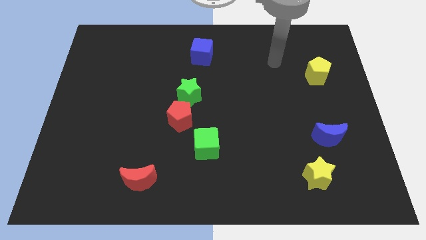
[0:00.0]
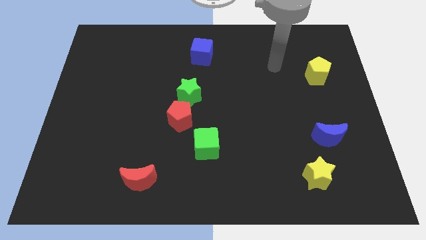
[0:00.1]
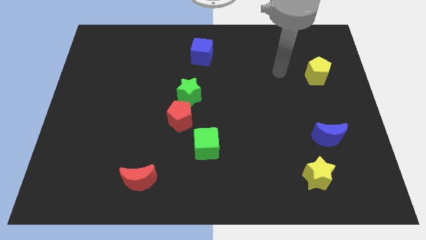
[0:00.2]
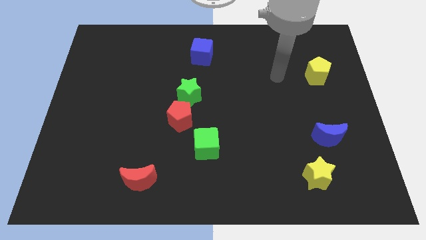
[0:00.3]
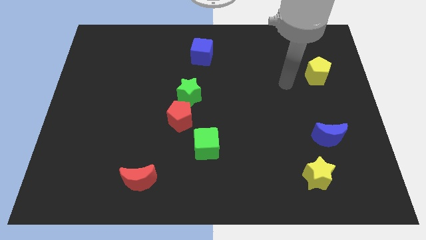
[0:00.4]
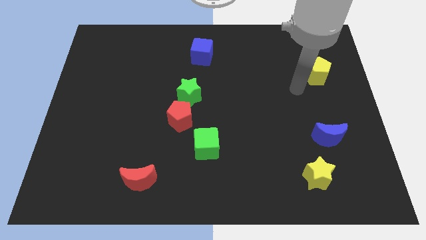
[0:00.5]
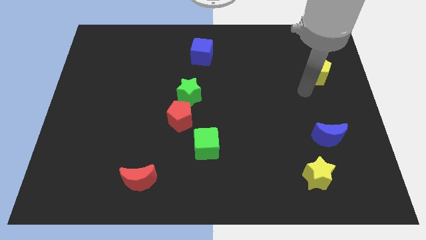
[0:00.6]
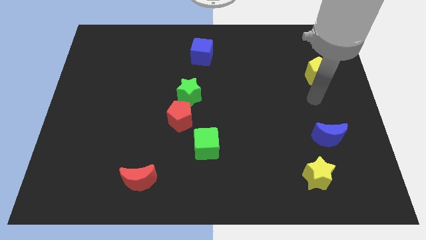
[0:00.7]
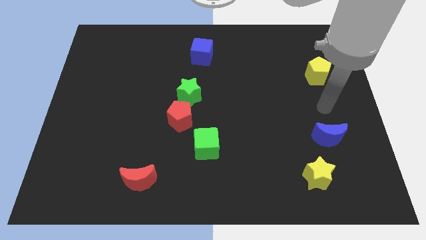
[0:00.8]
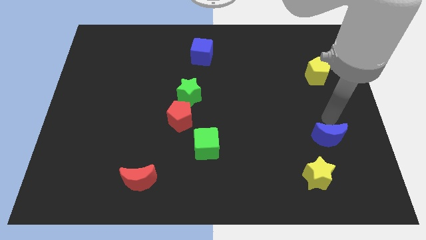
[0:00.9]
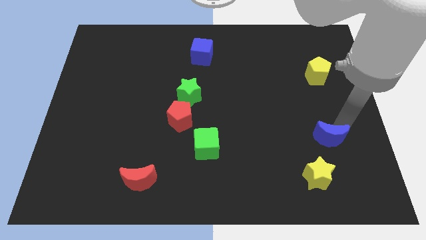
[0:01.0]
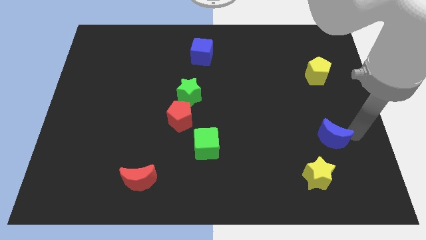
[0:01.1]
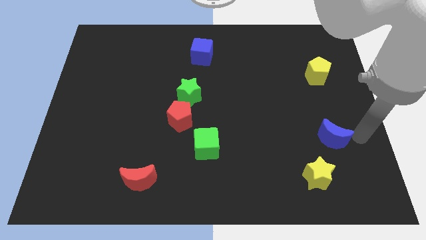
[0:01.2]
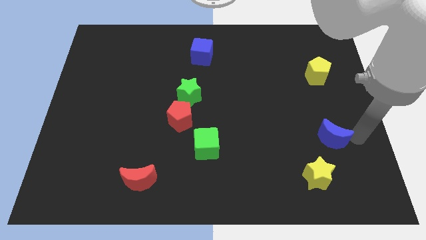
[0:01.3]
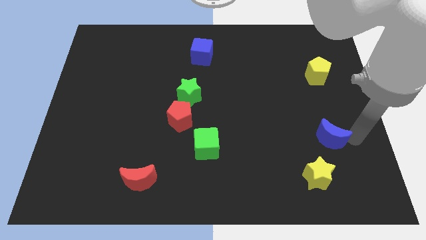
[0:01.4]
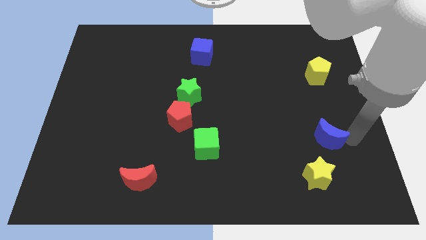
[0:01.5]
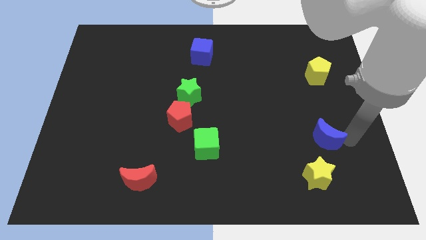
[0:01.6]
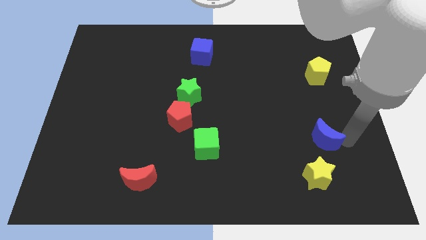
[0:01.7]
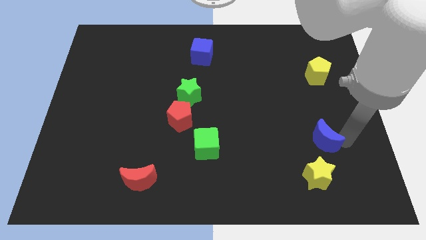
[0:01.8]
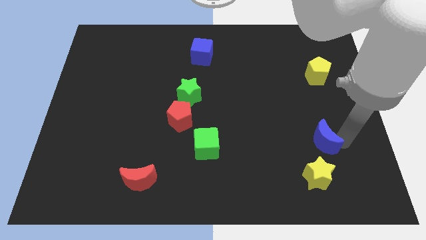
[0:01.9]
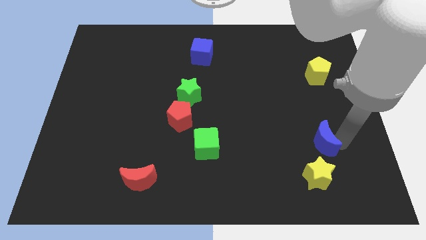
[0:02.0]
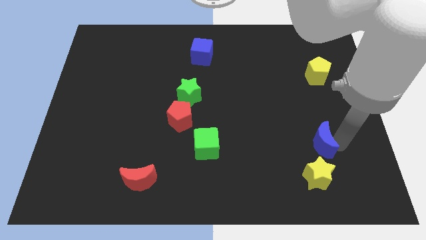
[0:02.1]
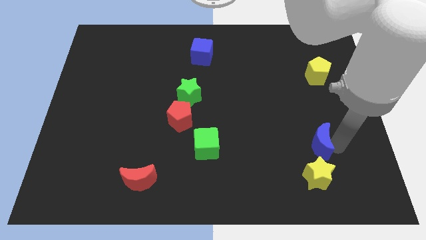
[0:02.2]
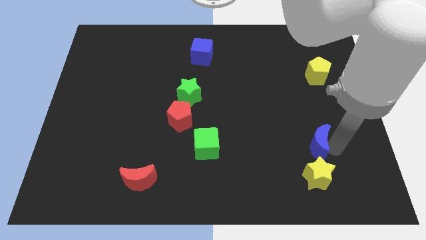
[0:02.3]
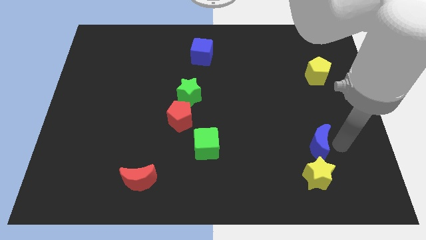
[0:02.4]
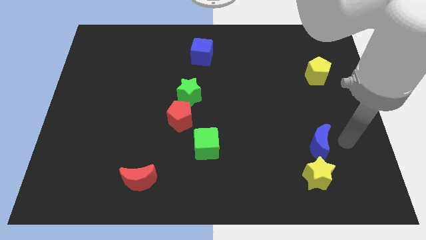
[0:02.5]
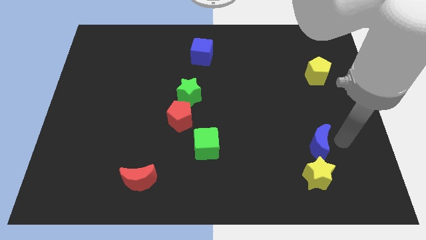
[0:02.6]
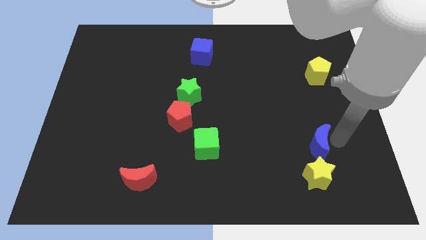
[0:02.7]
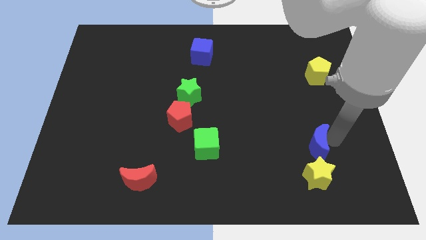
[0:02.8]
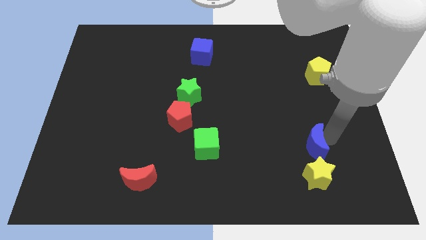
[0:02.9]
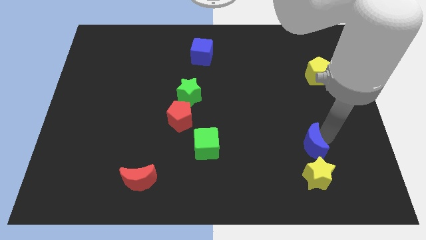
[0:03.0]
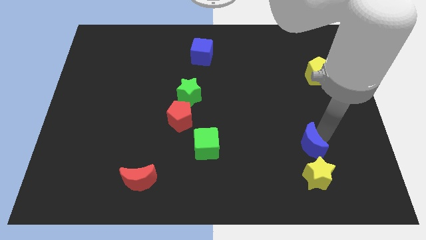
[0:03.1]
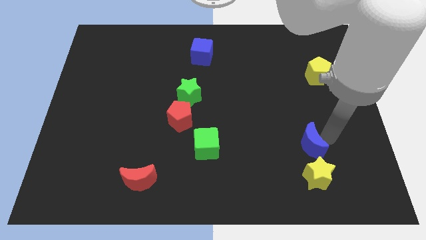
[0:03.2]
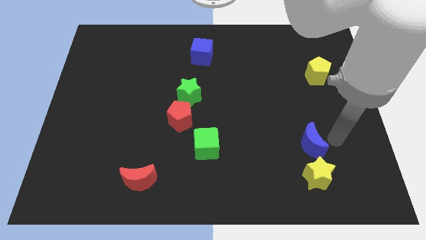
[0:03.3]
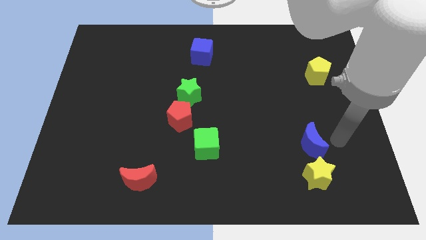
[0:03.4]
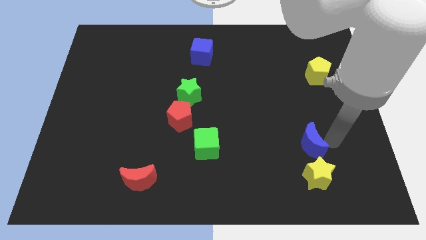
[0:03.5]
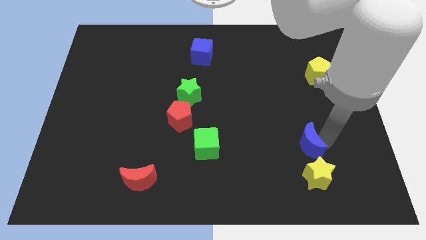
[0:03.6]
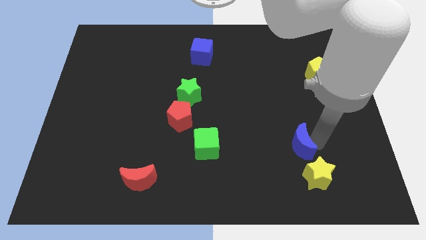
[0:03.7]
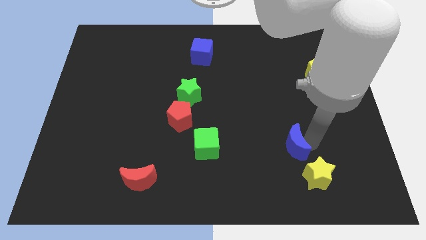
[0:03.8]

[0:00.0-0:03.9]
slide the blue moon to the left a little bit

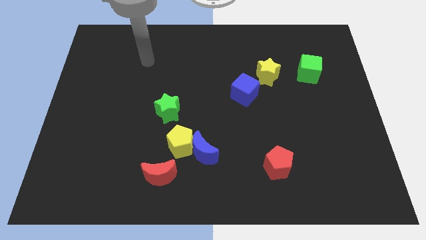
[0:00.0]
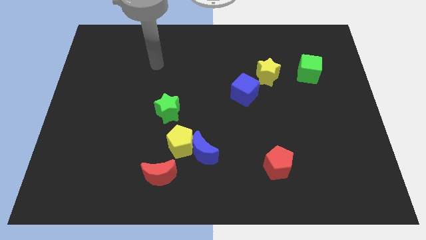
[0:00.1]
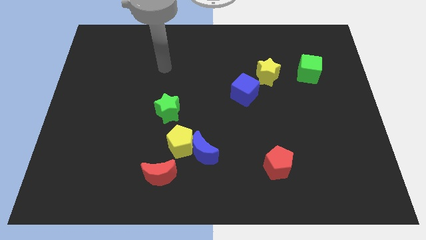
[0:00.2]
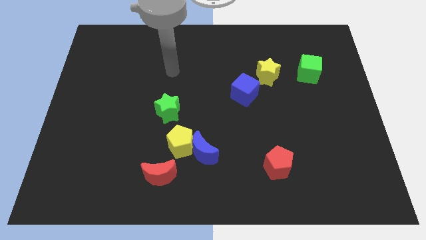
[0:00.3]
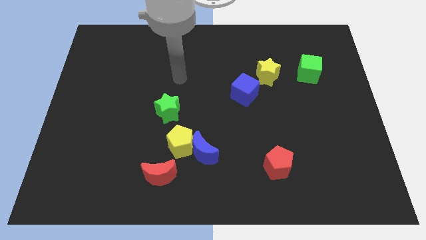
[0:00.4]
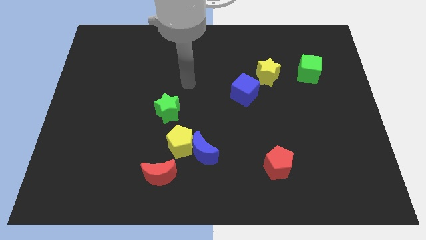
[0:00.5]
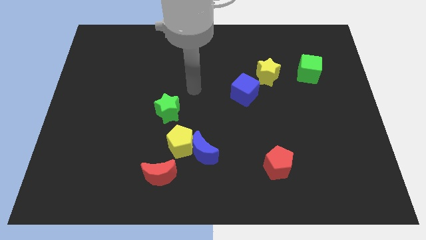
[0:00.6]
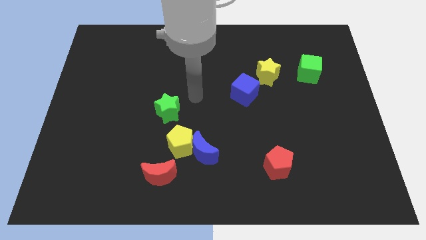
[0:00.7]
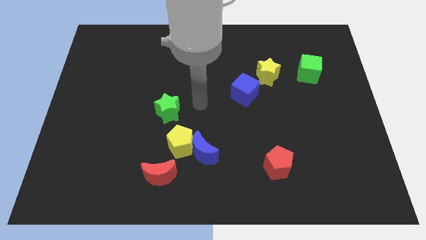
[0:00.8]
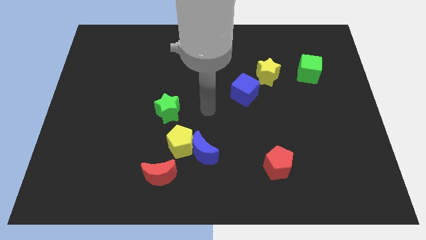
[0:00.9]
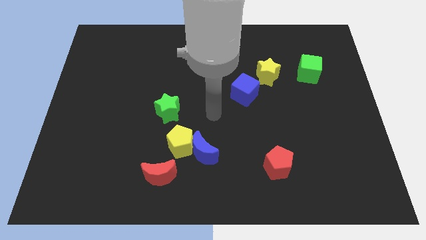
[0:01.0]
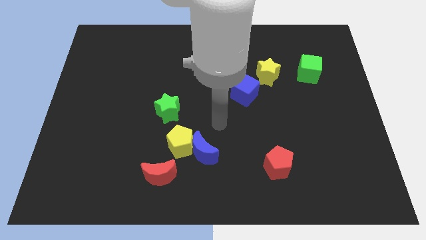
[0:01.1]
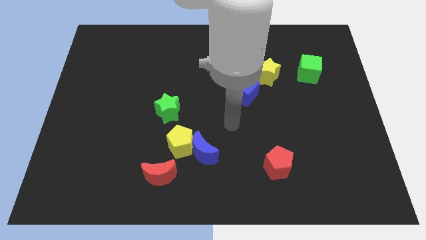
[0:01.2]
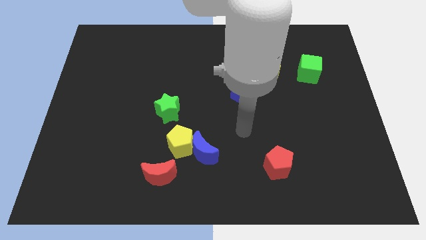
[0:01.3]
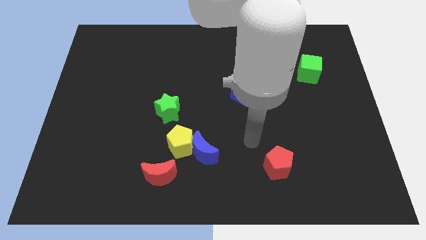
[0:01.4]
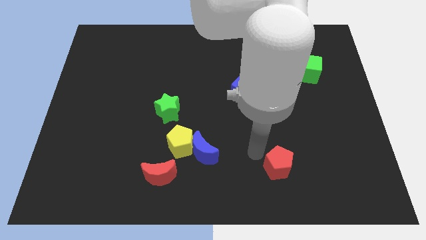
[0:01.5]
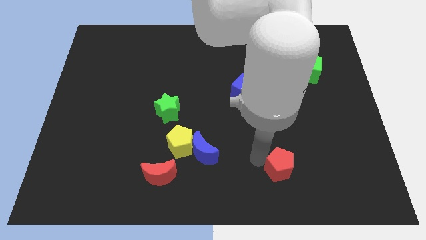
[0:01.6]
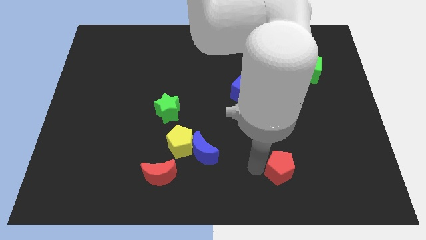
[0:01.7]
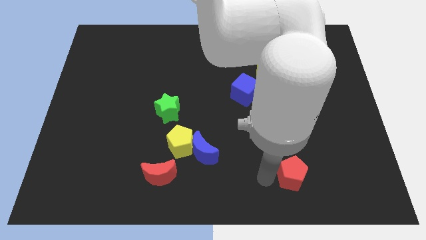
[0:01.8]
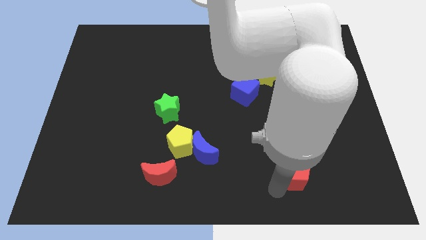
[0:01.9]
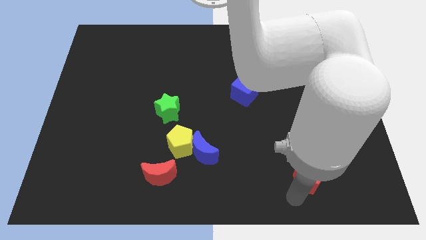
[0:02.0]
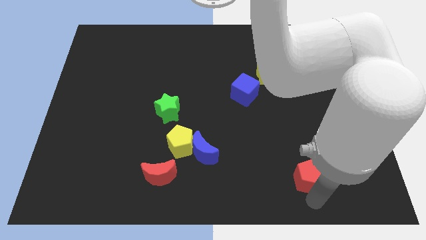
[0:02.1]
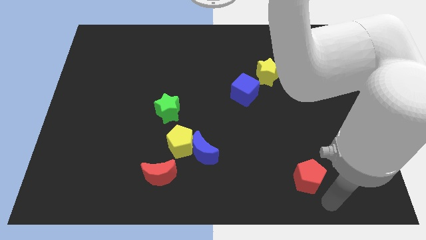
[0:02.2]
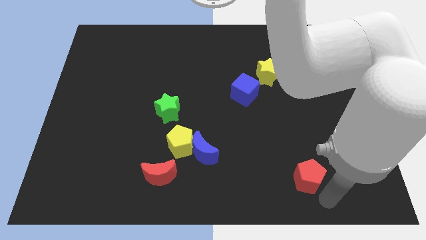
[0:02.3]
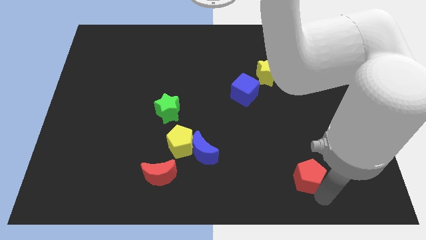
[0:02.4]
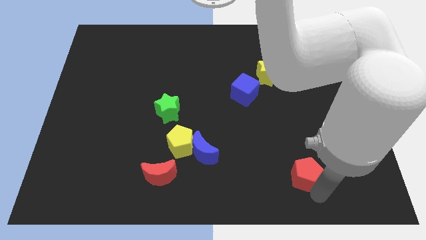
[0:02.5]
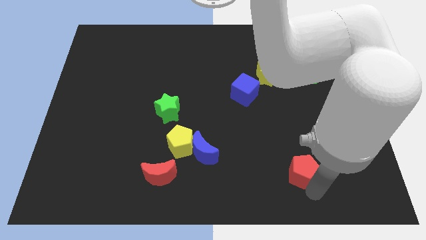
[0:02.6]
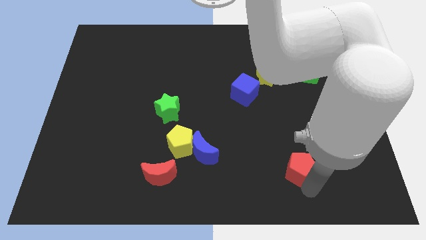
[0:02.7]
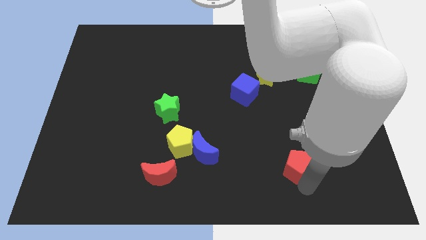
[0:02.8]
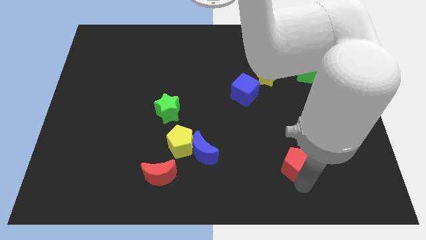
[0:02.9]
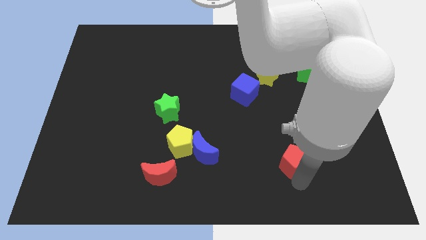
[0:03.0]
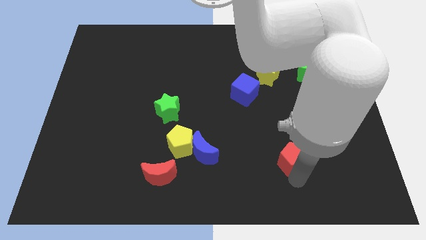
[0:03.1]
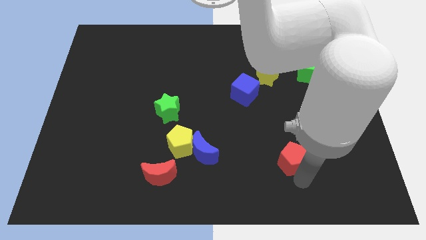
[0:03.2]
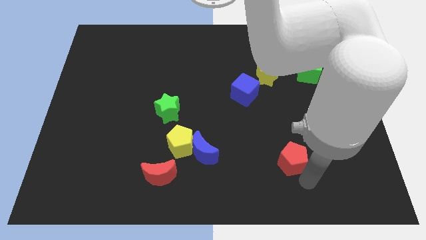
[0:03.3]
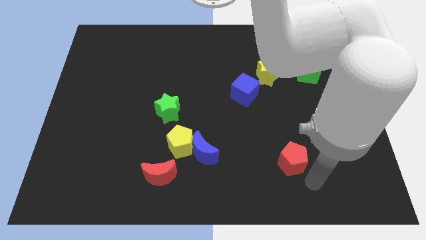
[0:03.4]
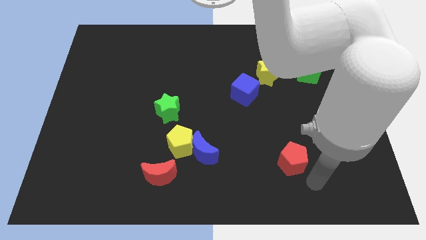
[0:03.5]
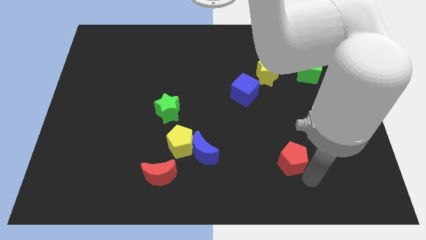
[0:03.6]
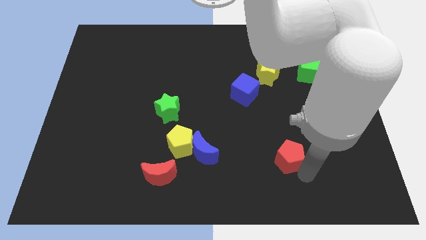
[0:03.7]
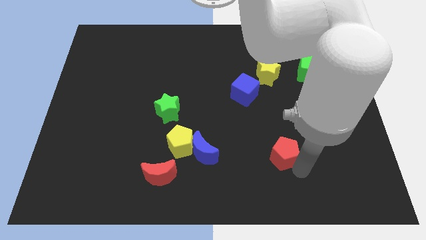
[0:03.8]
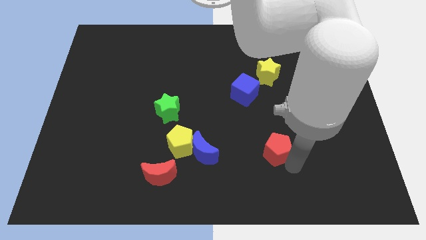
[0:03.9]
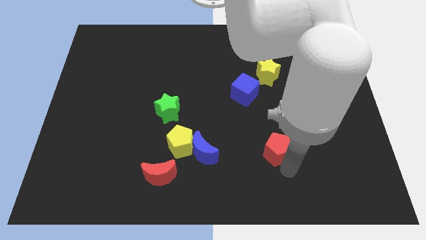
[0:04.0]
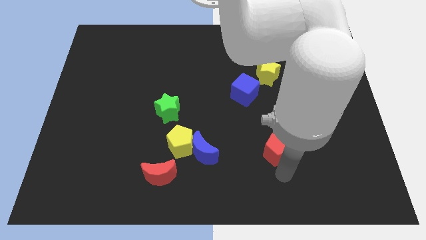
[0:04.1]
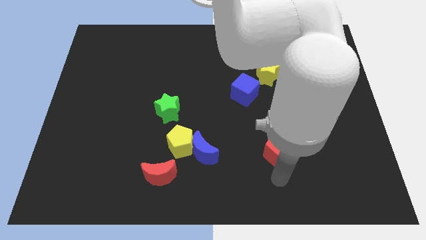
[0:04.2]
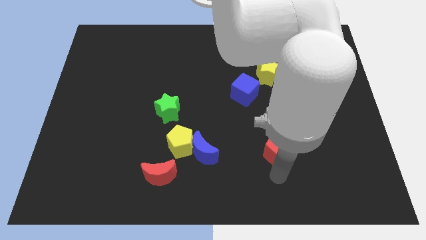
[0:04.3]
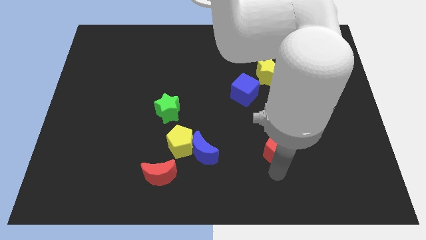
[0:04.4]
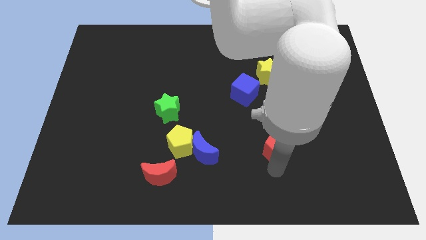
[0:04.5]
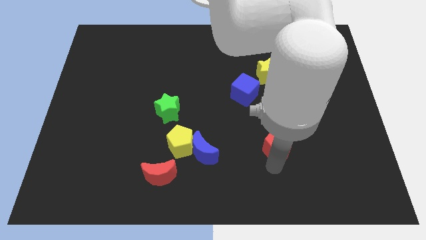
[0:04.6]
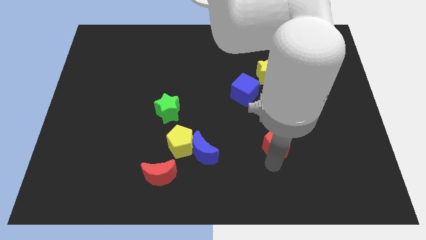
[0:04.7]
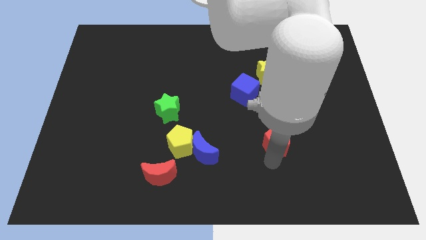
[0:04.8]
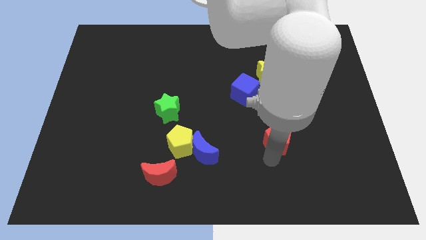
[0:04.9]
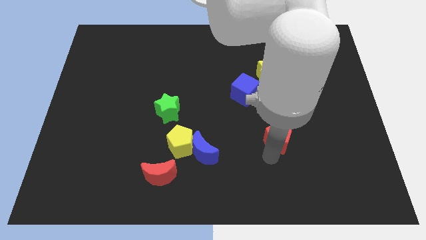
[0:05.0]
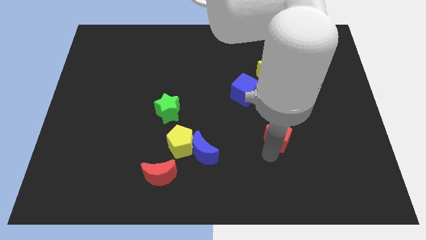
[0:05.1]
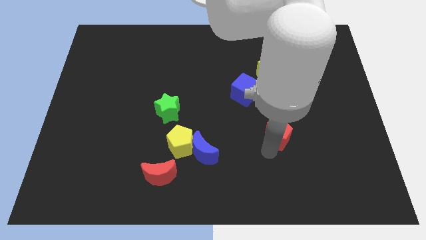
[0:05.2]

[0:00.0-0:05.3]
slightly move the red pentagon upwards
